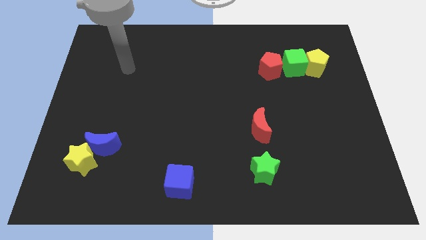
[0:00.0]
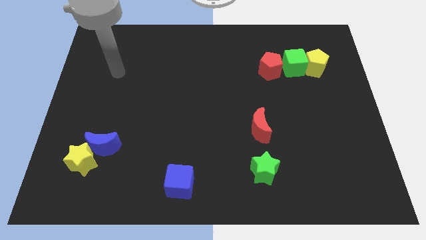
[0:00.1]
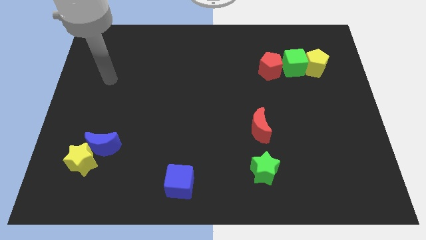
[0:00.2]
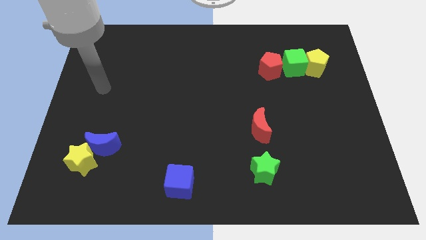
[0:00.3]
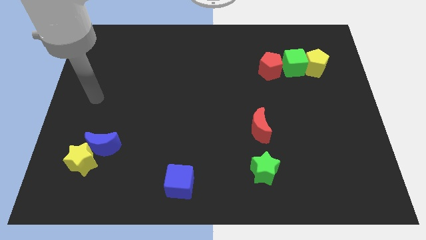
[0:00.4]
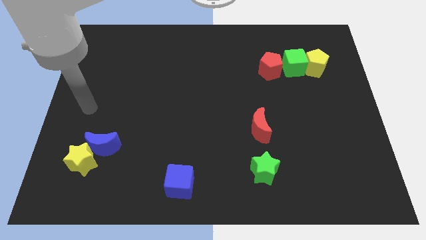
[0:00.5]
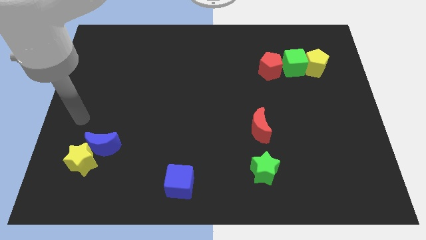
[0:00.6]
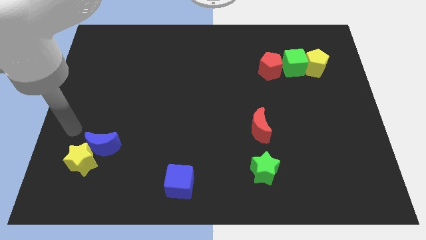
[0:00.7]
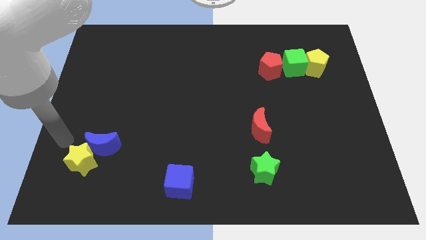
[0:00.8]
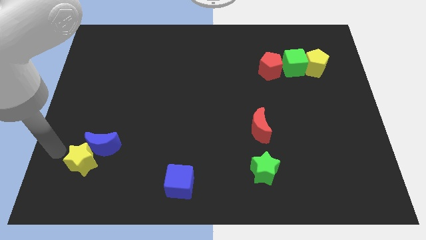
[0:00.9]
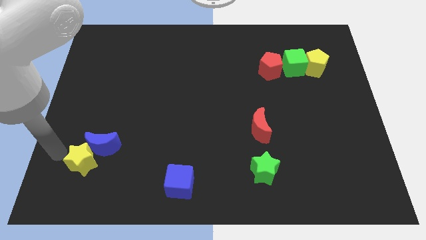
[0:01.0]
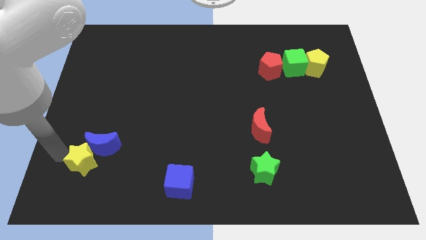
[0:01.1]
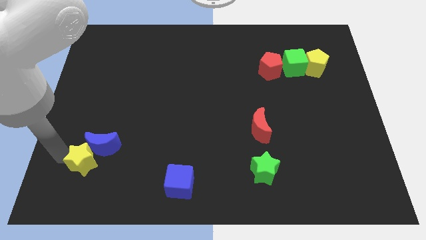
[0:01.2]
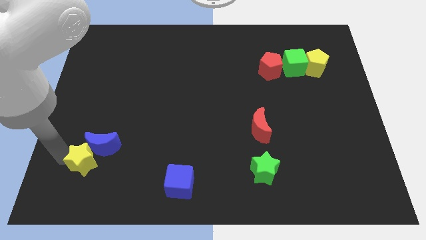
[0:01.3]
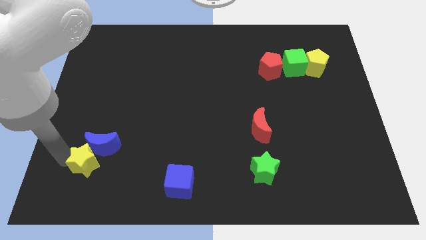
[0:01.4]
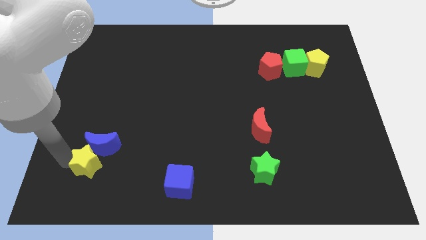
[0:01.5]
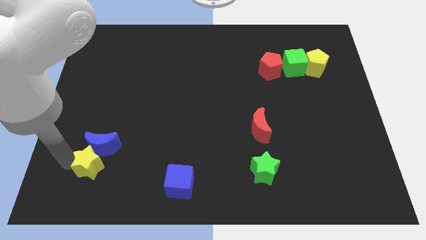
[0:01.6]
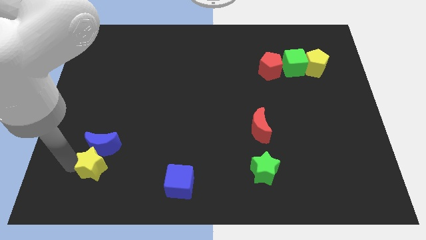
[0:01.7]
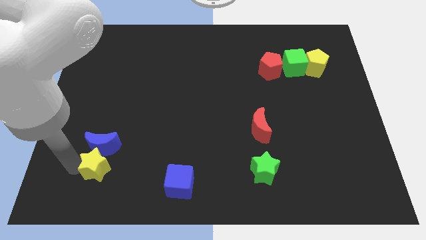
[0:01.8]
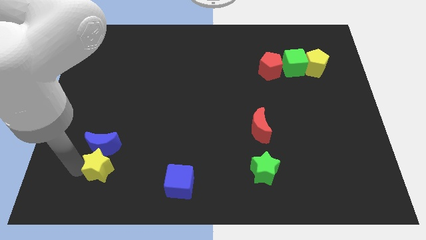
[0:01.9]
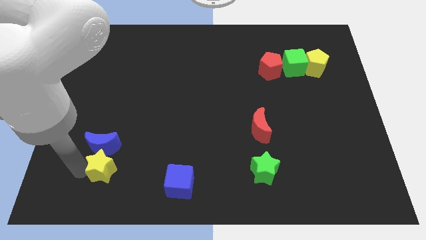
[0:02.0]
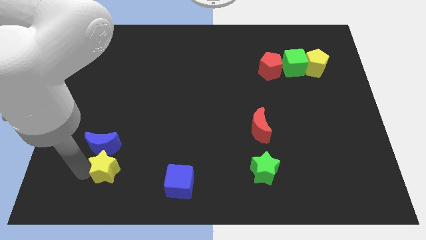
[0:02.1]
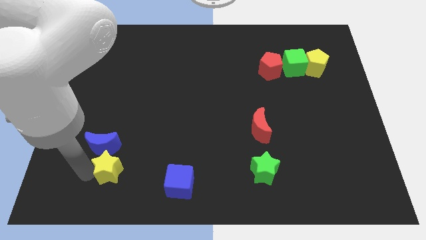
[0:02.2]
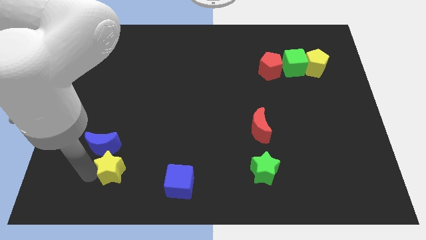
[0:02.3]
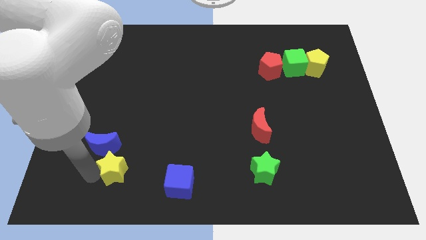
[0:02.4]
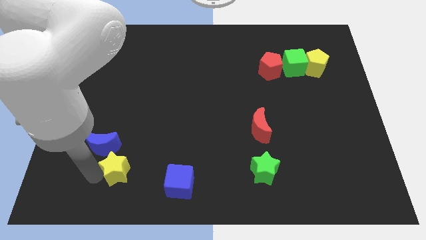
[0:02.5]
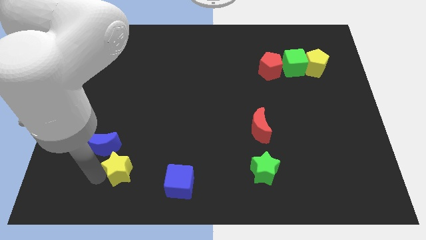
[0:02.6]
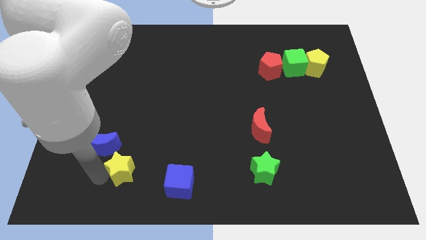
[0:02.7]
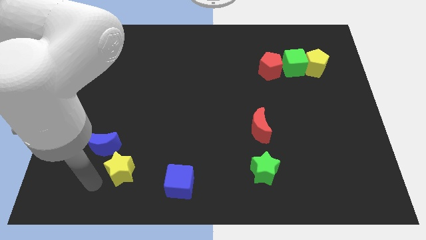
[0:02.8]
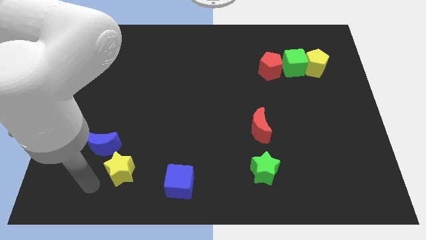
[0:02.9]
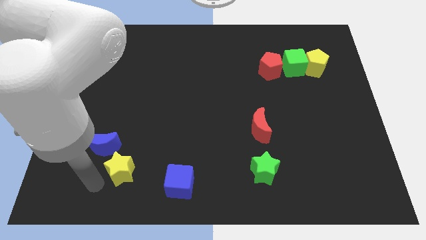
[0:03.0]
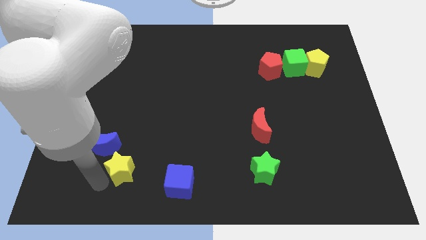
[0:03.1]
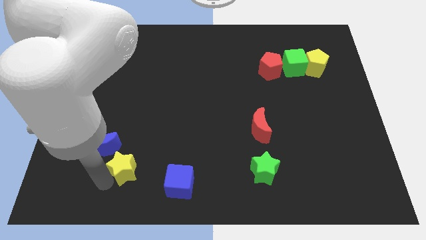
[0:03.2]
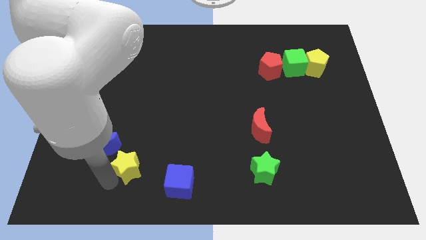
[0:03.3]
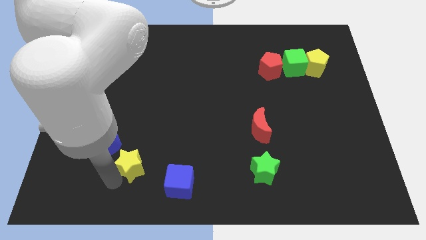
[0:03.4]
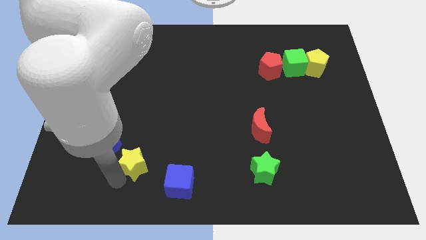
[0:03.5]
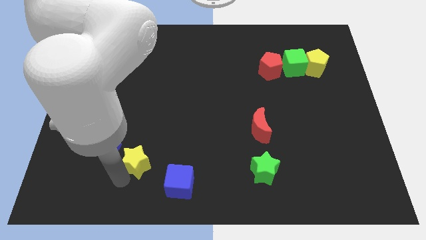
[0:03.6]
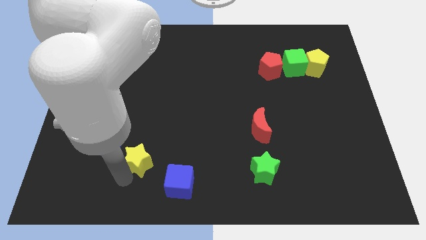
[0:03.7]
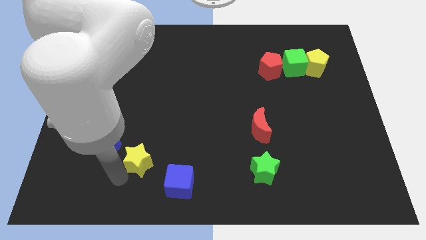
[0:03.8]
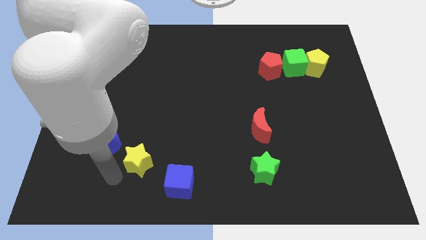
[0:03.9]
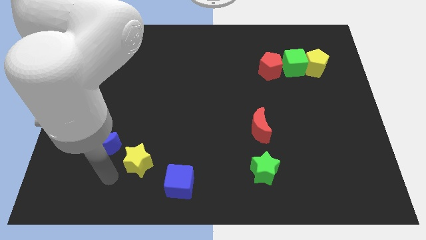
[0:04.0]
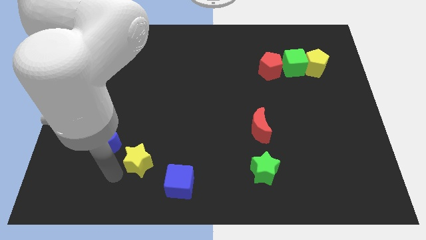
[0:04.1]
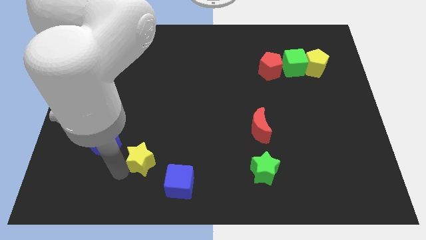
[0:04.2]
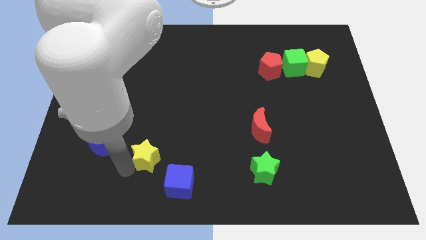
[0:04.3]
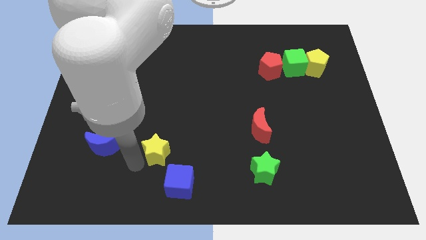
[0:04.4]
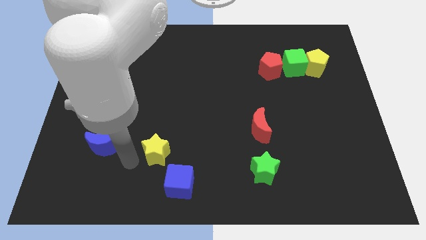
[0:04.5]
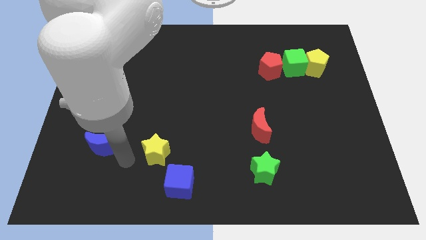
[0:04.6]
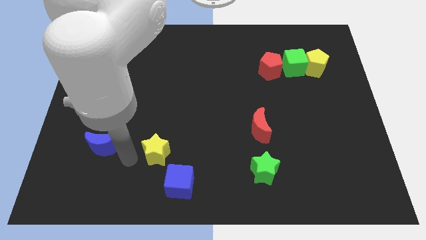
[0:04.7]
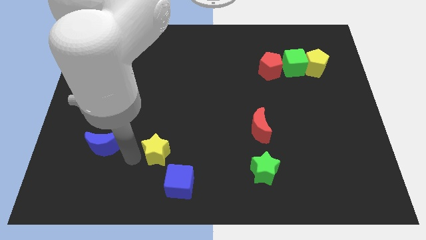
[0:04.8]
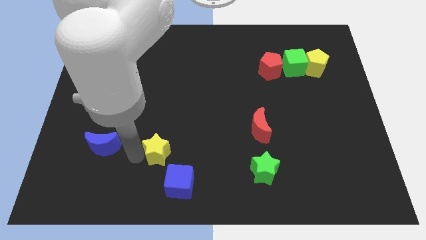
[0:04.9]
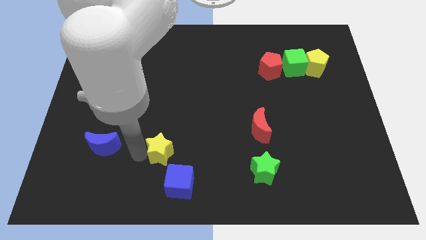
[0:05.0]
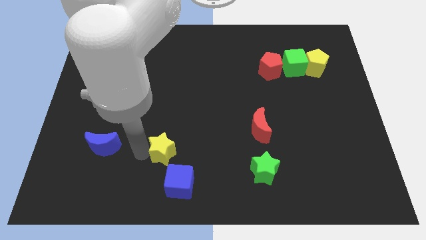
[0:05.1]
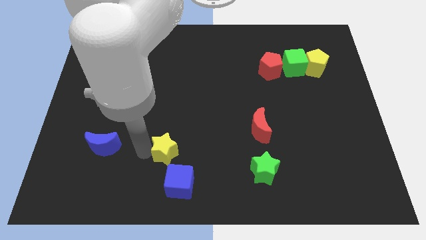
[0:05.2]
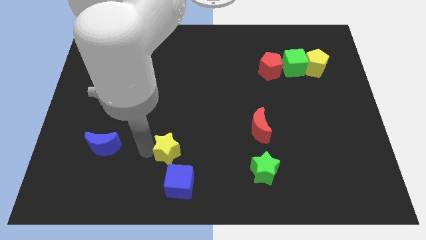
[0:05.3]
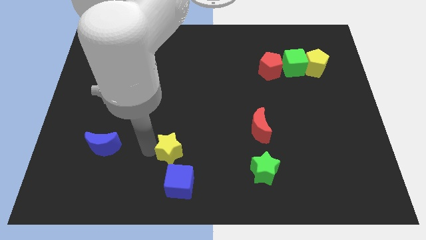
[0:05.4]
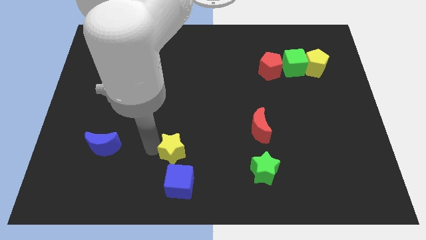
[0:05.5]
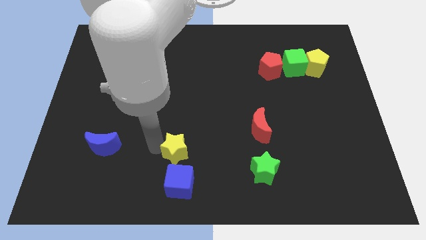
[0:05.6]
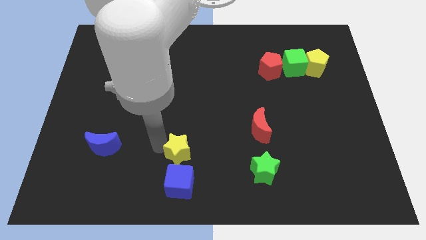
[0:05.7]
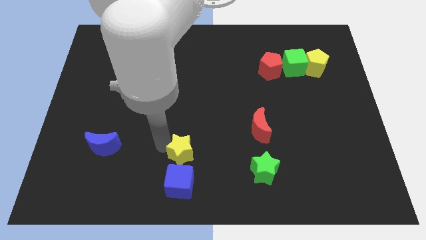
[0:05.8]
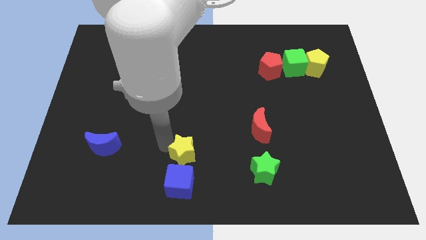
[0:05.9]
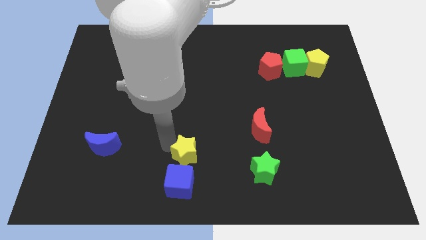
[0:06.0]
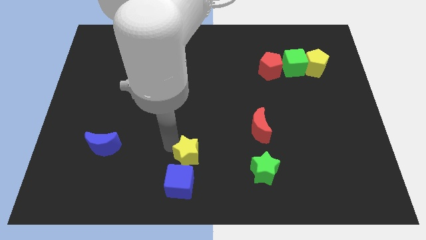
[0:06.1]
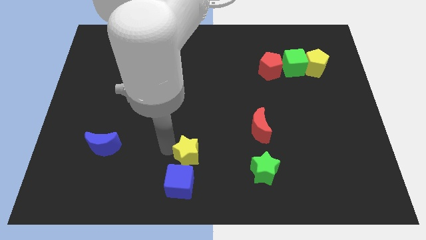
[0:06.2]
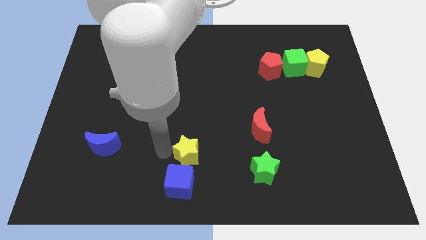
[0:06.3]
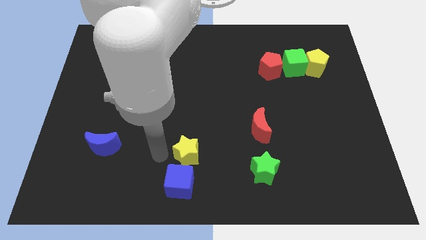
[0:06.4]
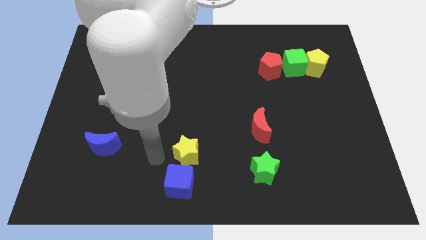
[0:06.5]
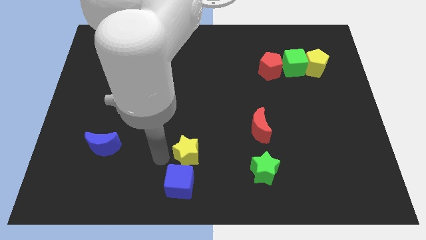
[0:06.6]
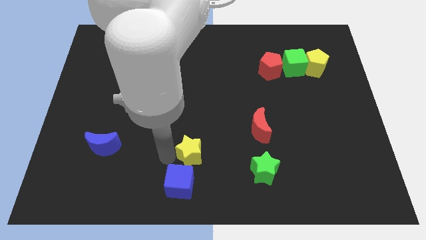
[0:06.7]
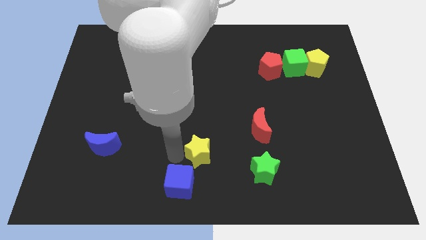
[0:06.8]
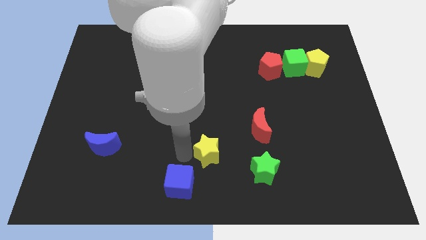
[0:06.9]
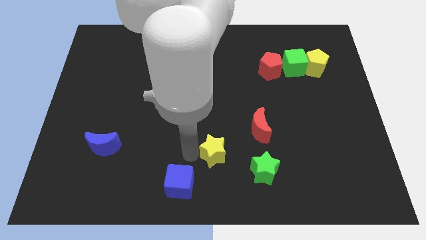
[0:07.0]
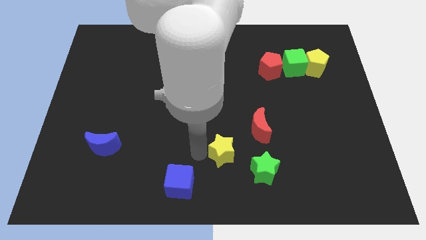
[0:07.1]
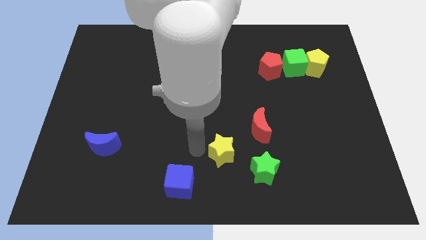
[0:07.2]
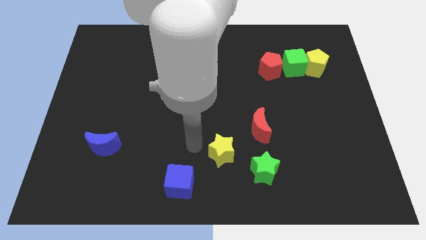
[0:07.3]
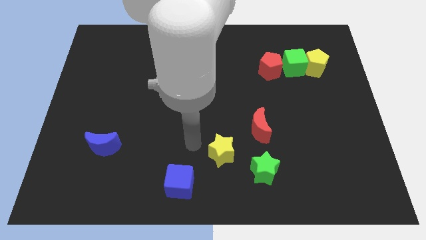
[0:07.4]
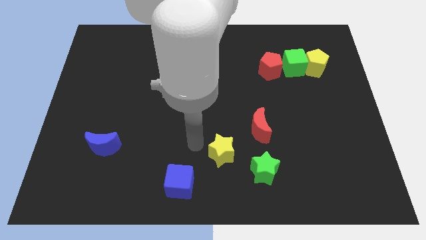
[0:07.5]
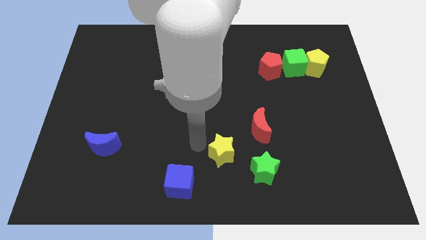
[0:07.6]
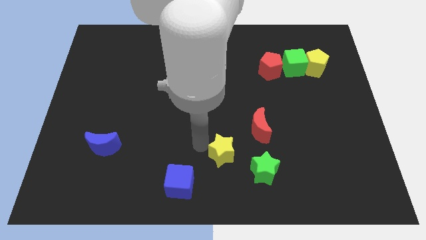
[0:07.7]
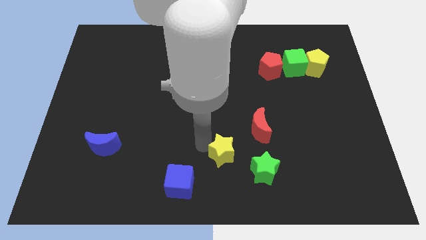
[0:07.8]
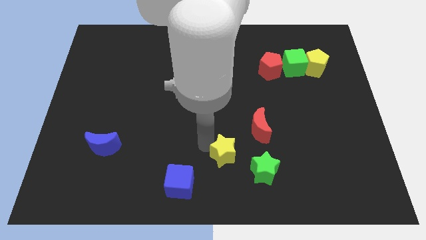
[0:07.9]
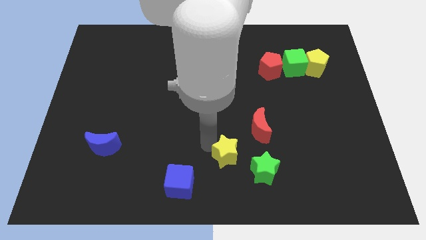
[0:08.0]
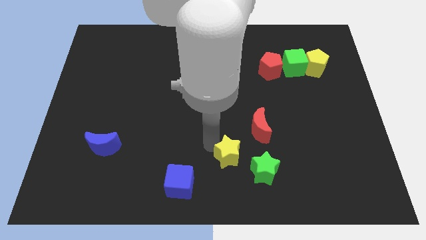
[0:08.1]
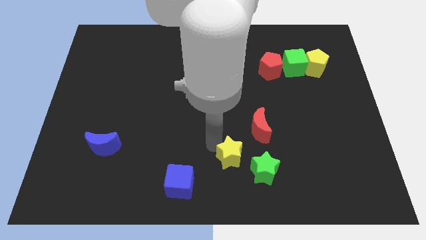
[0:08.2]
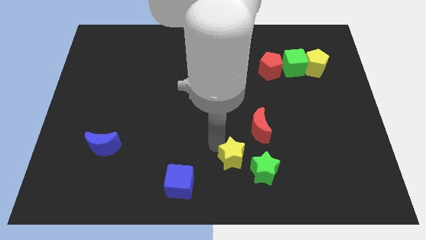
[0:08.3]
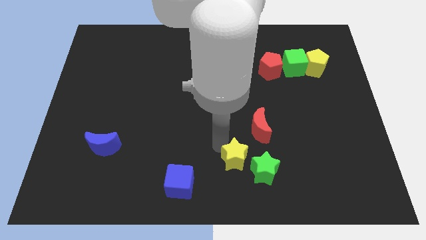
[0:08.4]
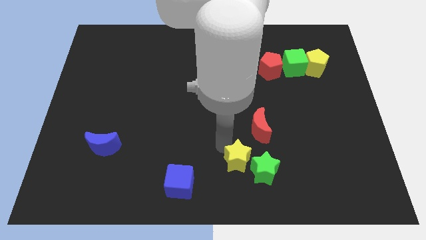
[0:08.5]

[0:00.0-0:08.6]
slide the yellow star close to the green star
